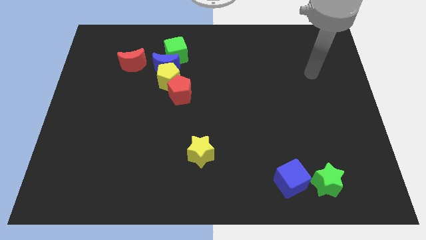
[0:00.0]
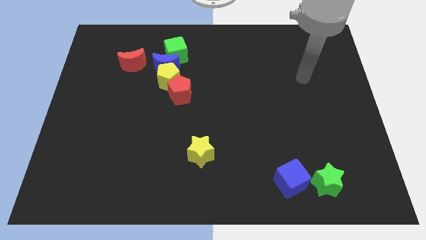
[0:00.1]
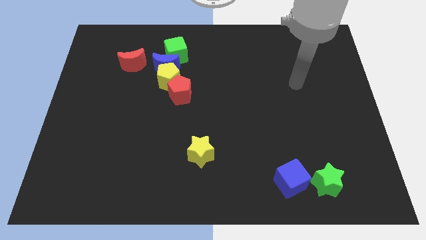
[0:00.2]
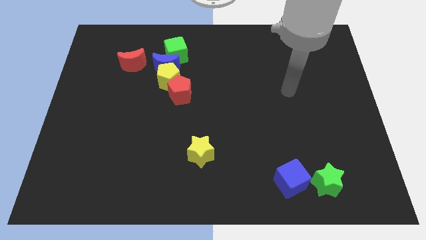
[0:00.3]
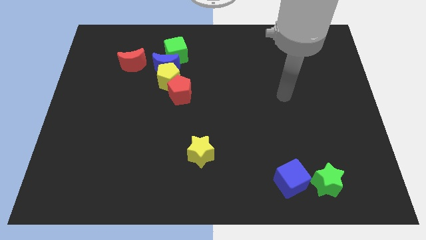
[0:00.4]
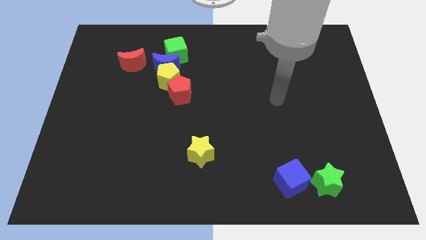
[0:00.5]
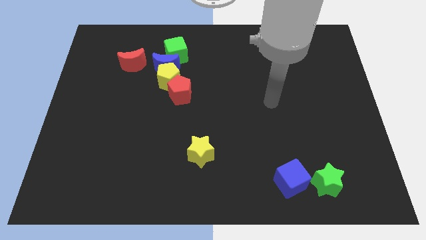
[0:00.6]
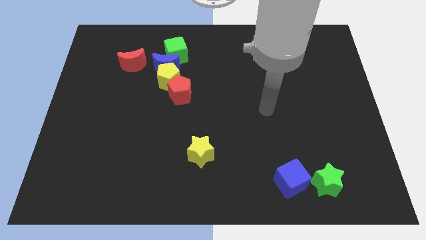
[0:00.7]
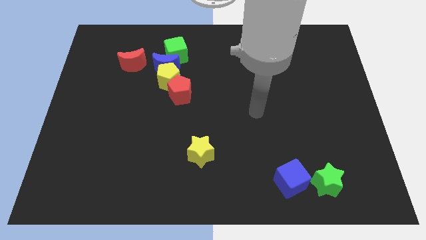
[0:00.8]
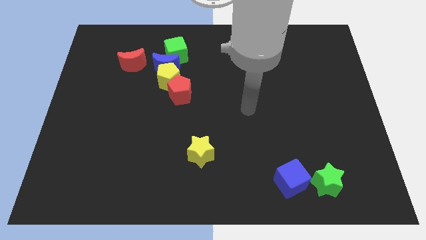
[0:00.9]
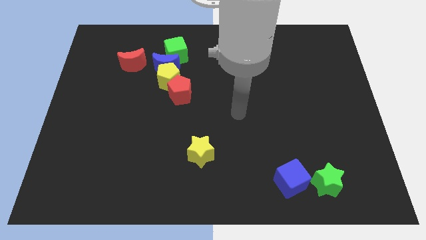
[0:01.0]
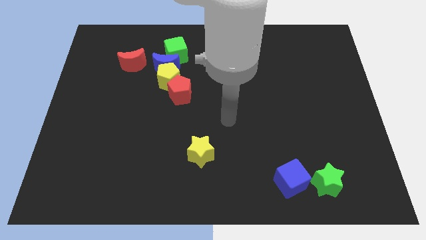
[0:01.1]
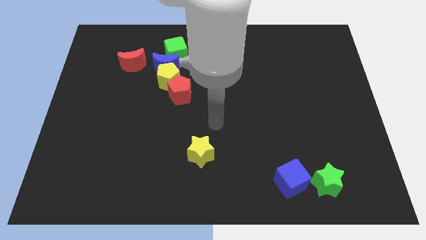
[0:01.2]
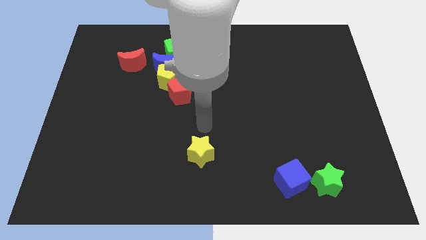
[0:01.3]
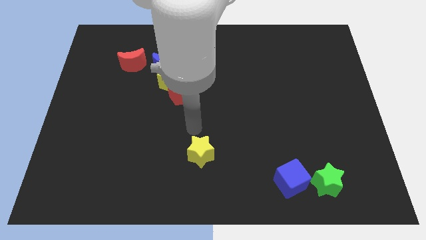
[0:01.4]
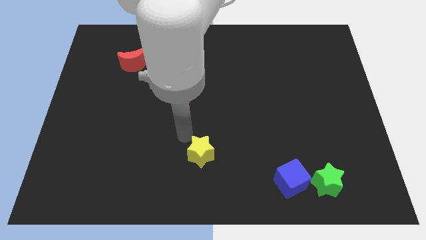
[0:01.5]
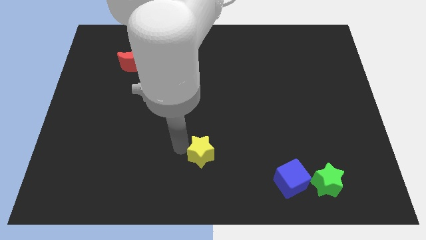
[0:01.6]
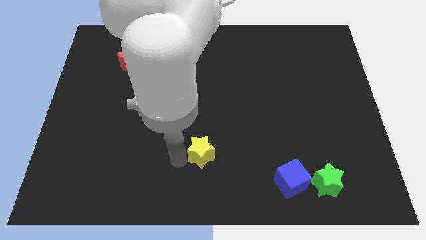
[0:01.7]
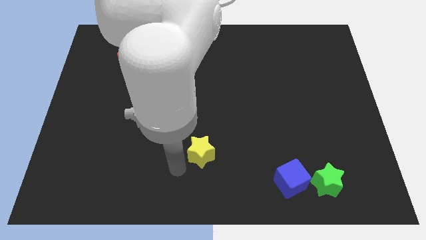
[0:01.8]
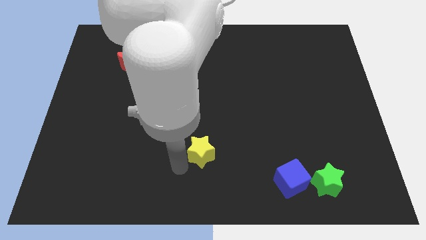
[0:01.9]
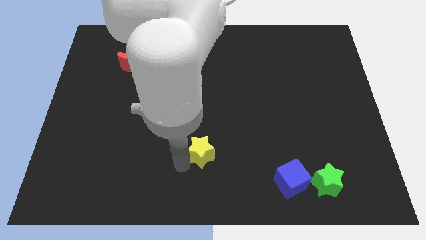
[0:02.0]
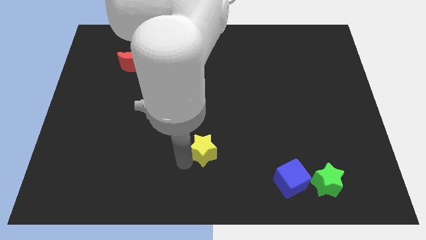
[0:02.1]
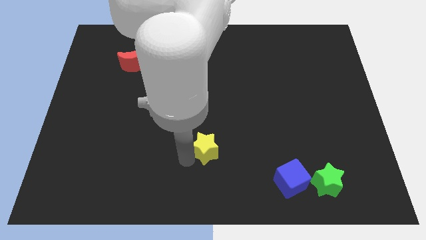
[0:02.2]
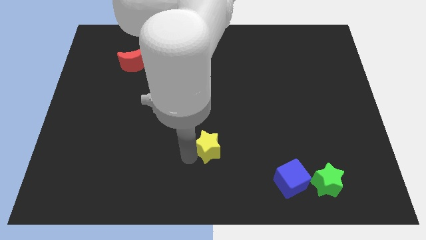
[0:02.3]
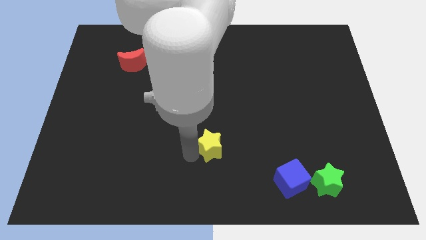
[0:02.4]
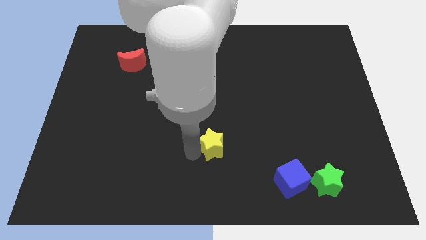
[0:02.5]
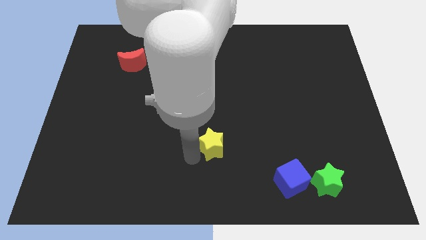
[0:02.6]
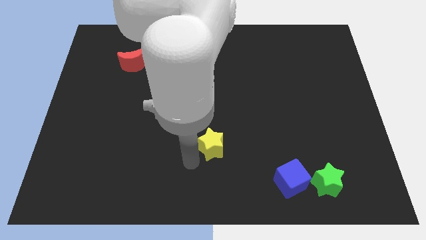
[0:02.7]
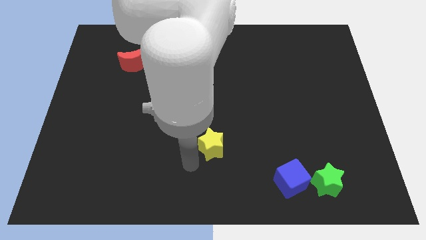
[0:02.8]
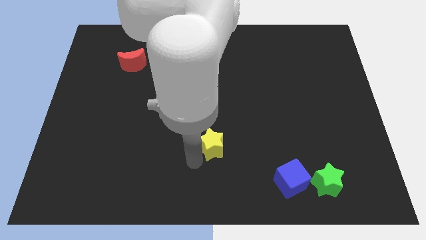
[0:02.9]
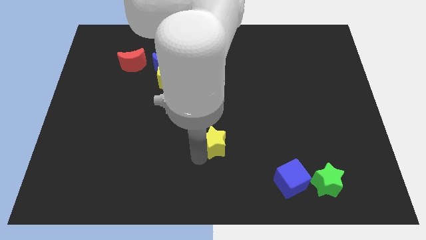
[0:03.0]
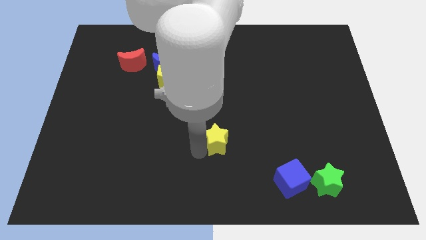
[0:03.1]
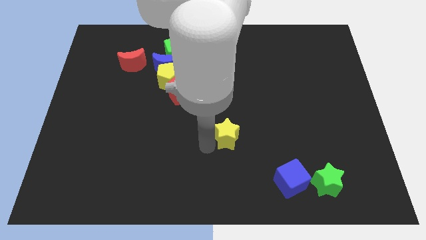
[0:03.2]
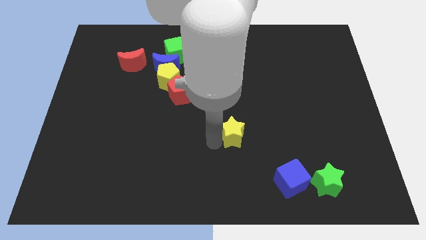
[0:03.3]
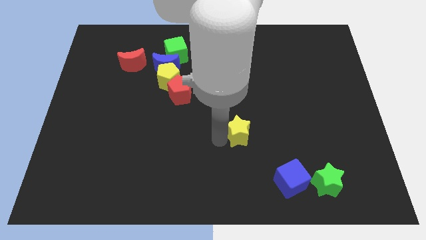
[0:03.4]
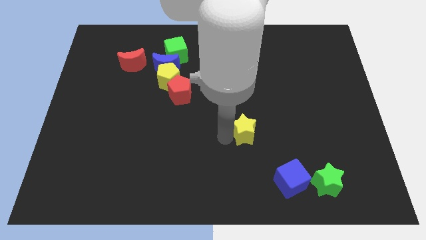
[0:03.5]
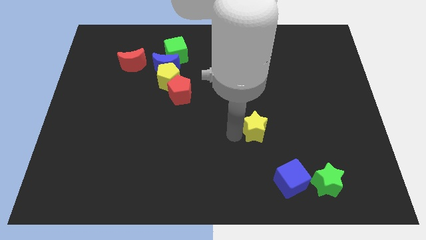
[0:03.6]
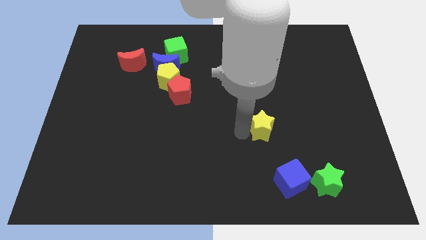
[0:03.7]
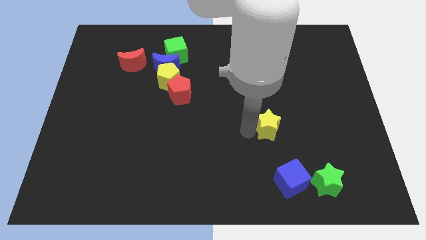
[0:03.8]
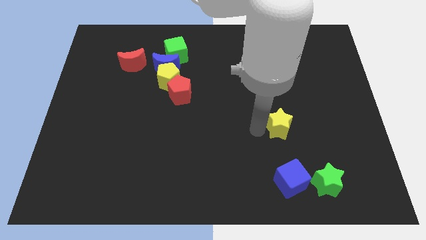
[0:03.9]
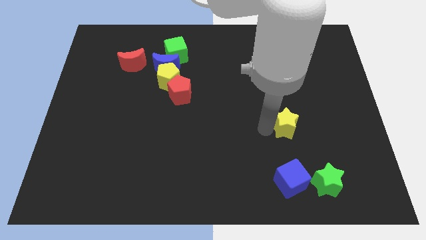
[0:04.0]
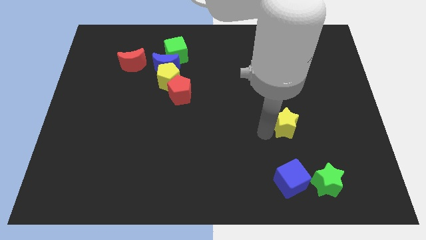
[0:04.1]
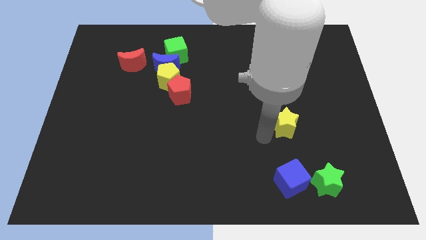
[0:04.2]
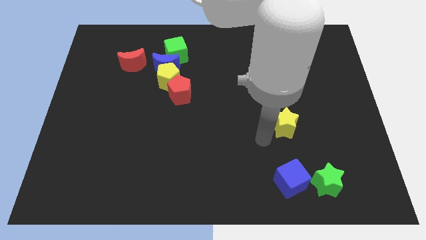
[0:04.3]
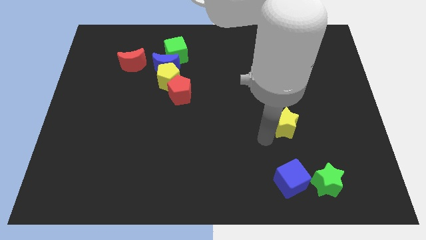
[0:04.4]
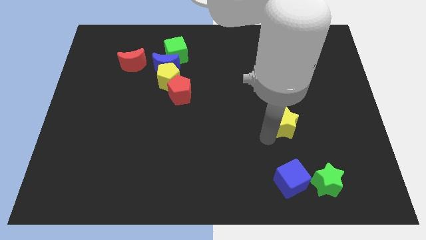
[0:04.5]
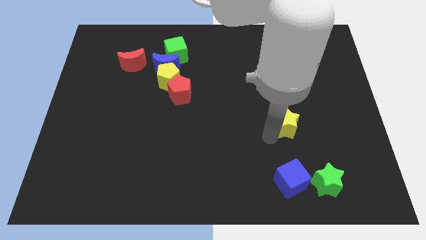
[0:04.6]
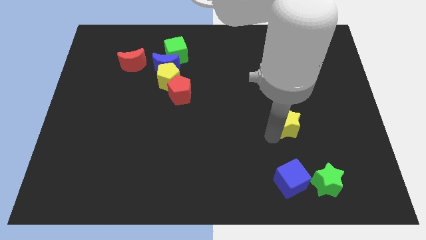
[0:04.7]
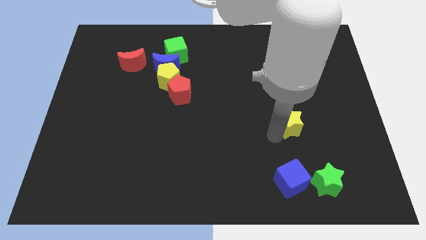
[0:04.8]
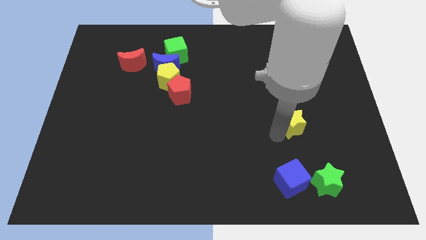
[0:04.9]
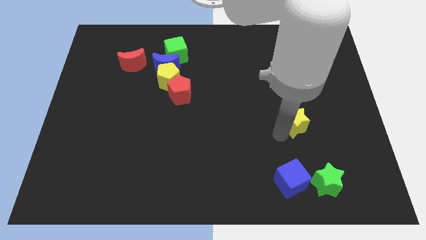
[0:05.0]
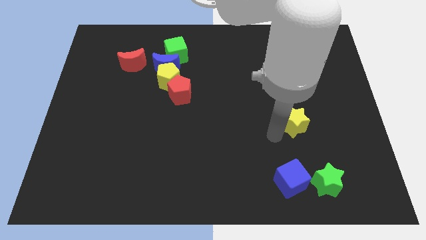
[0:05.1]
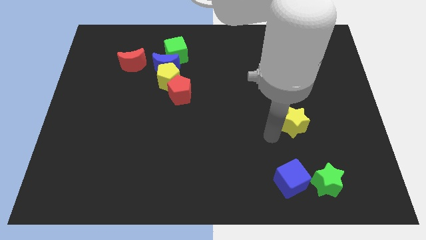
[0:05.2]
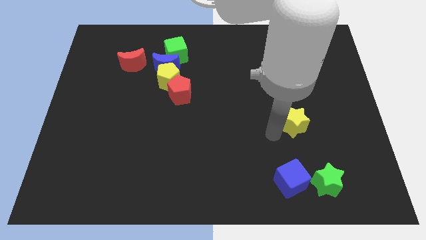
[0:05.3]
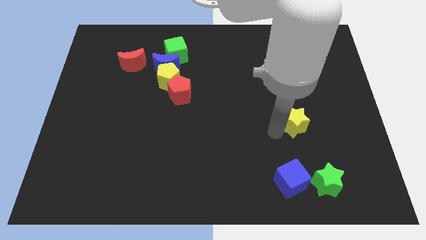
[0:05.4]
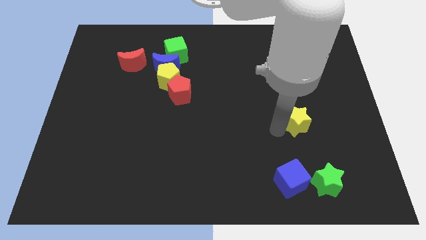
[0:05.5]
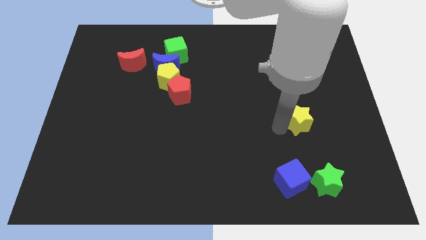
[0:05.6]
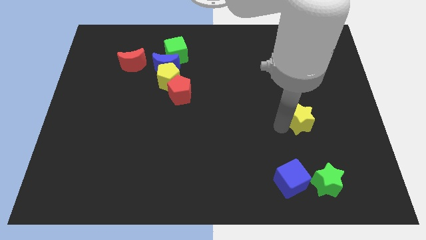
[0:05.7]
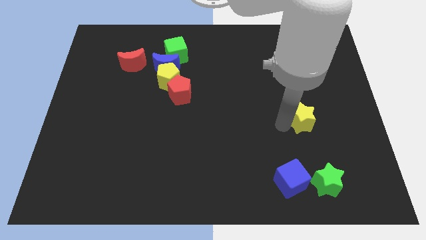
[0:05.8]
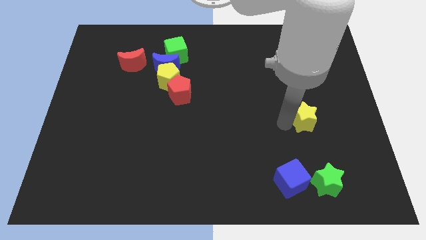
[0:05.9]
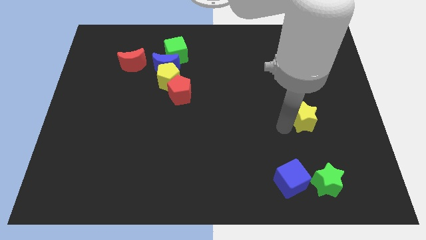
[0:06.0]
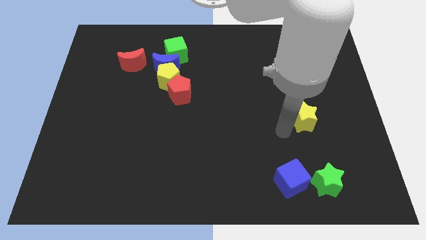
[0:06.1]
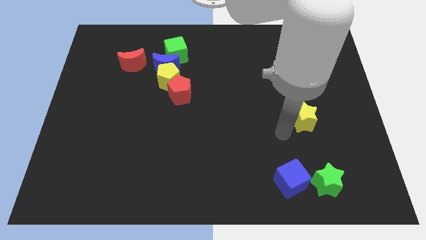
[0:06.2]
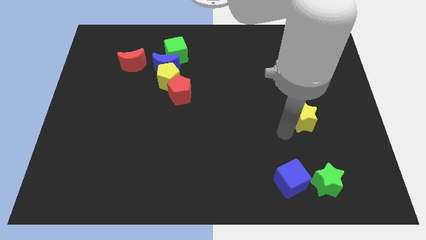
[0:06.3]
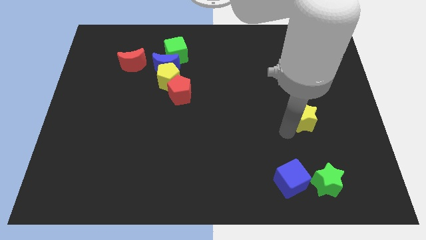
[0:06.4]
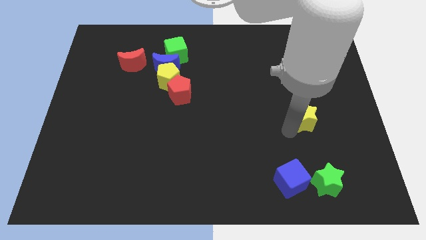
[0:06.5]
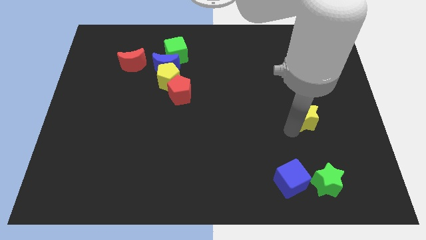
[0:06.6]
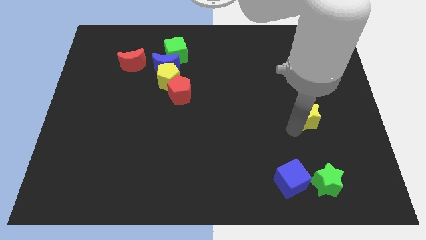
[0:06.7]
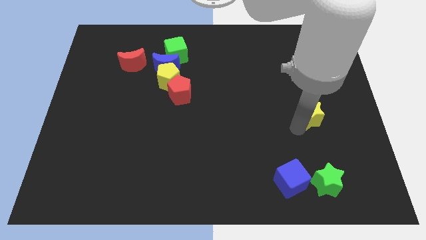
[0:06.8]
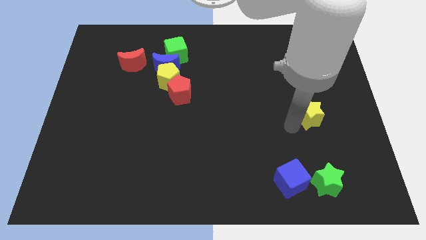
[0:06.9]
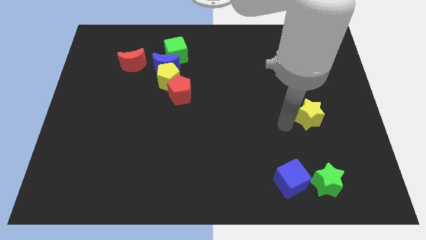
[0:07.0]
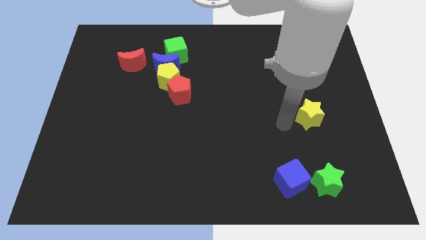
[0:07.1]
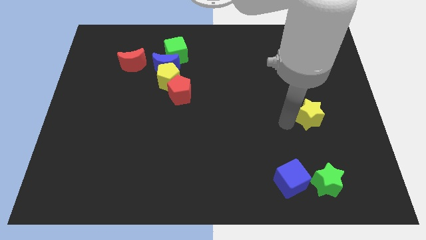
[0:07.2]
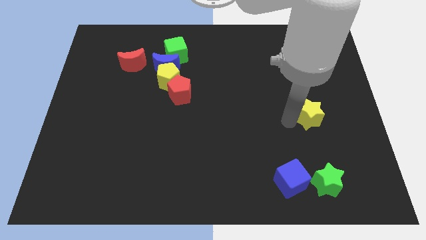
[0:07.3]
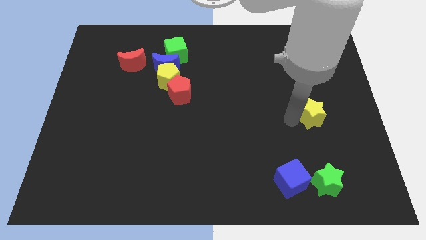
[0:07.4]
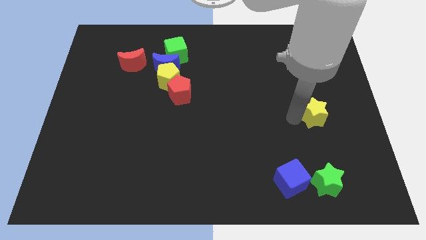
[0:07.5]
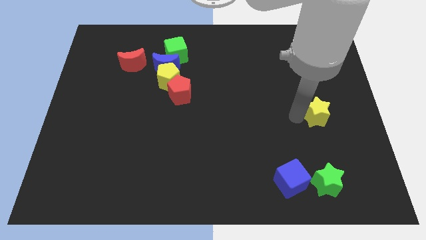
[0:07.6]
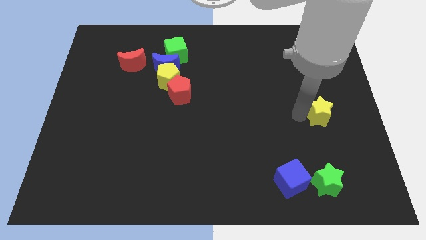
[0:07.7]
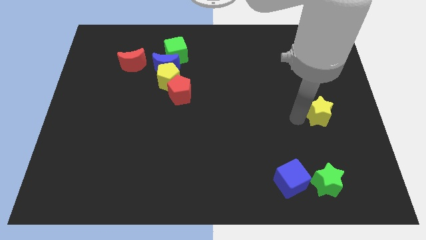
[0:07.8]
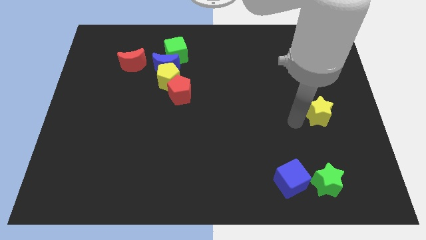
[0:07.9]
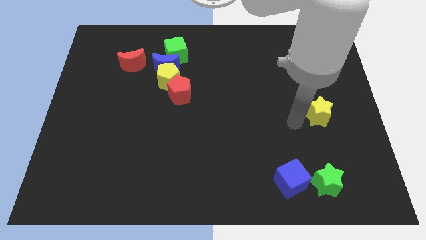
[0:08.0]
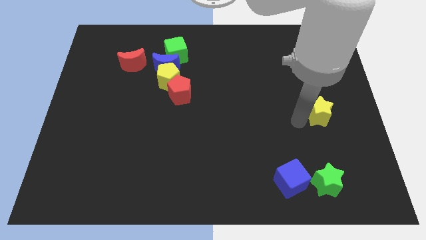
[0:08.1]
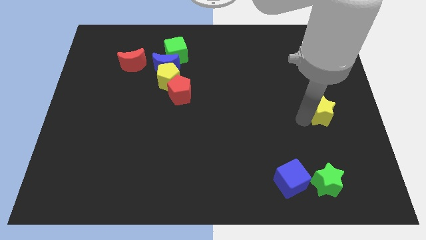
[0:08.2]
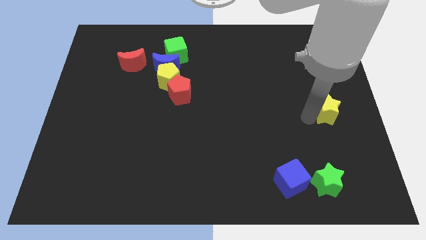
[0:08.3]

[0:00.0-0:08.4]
slide the yellow star to the right side of the board
